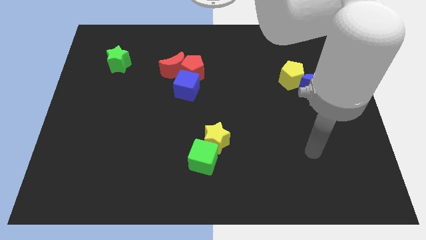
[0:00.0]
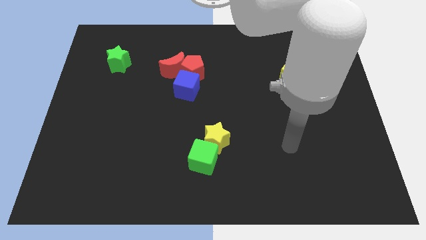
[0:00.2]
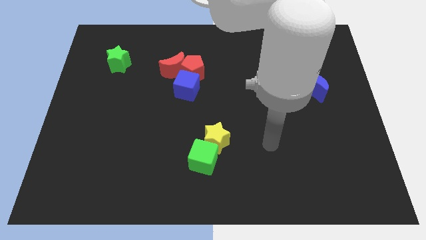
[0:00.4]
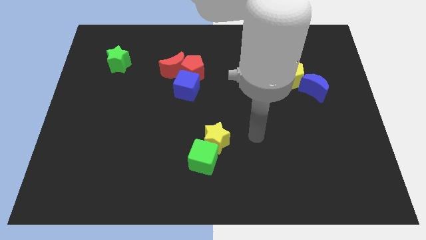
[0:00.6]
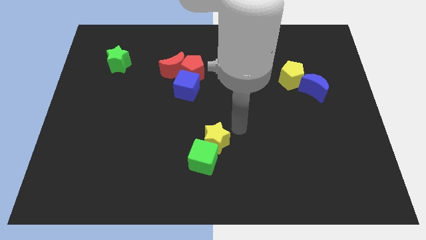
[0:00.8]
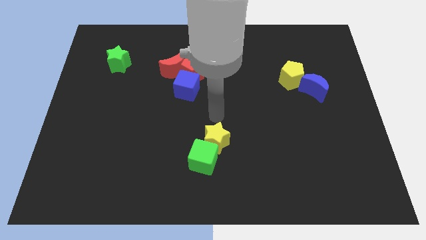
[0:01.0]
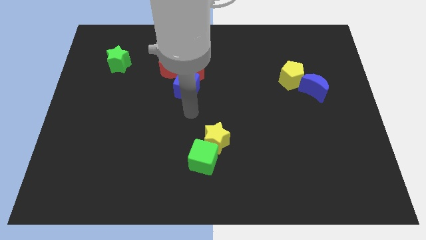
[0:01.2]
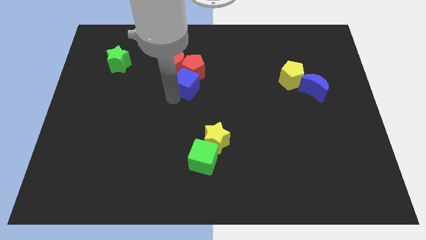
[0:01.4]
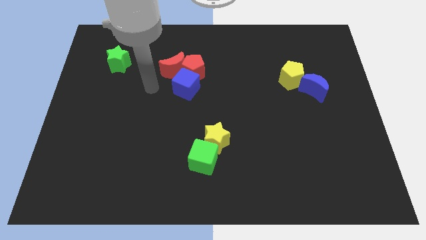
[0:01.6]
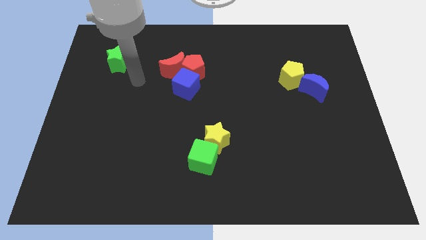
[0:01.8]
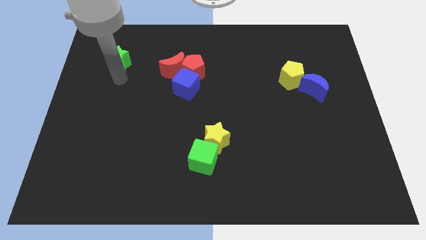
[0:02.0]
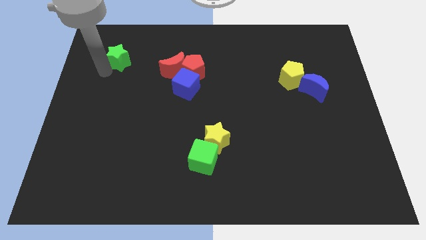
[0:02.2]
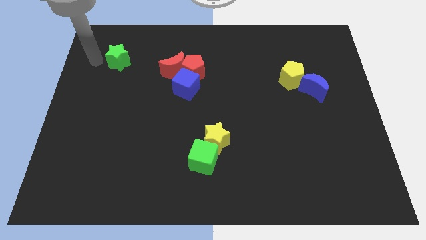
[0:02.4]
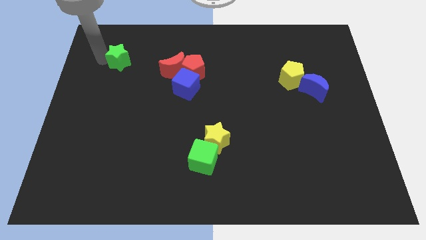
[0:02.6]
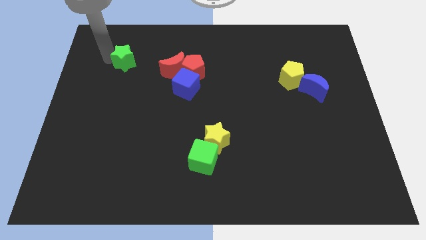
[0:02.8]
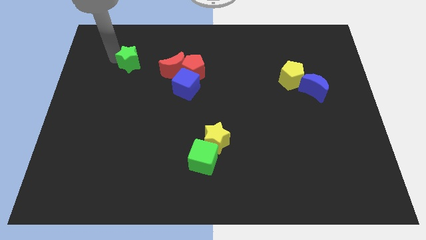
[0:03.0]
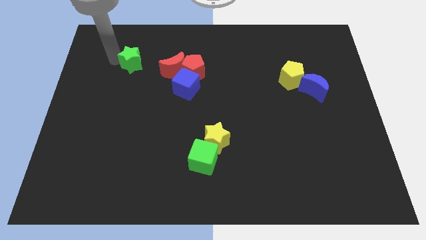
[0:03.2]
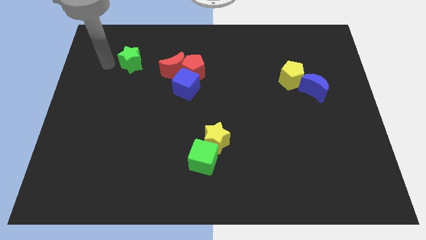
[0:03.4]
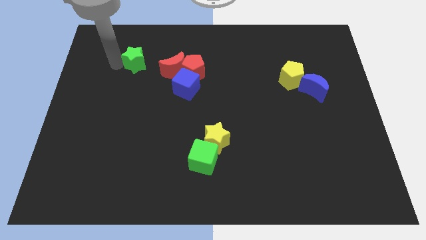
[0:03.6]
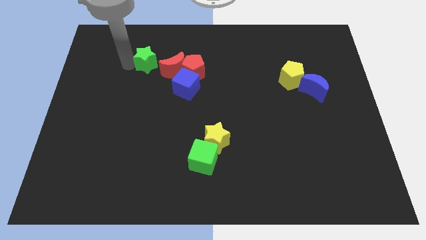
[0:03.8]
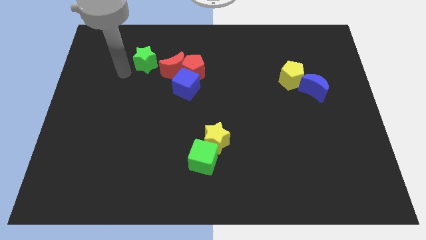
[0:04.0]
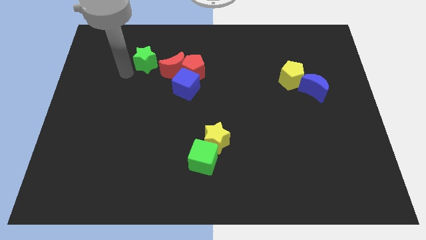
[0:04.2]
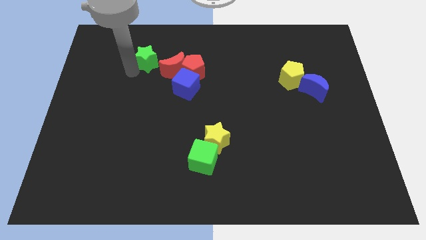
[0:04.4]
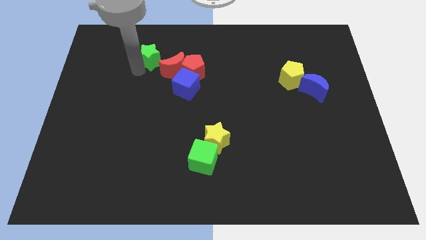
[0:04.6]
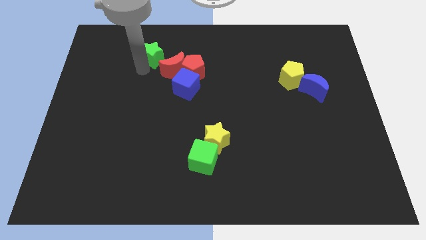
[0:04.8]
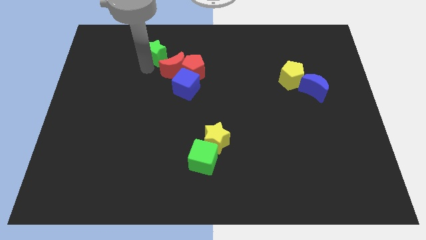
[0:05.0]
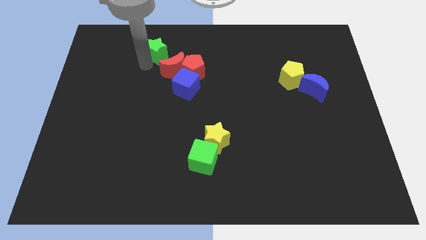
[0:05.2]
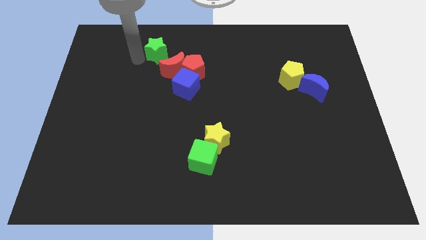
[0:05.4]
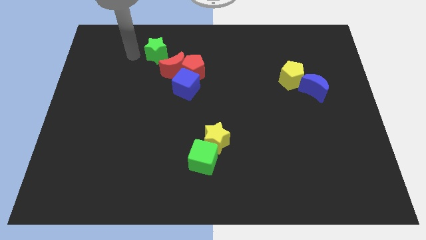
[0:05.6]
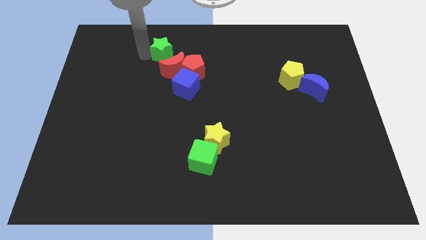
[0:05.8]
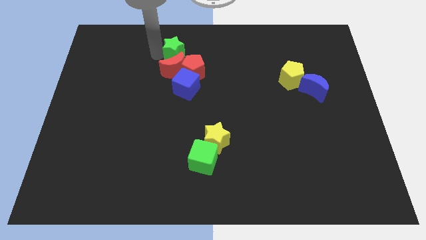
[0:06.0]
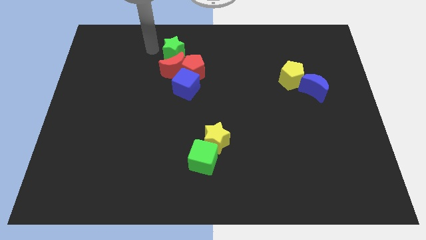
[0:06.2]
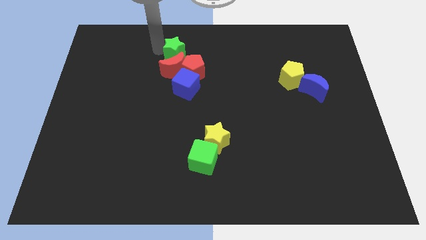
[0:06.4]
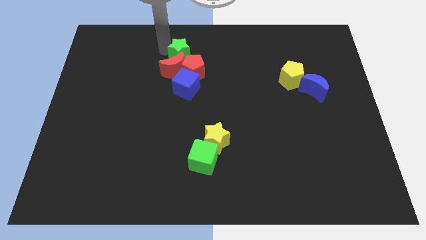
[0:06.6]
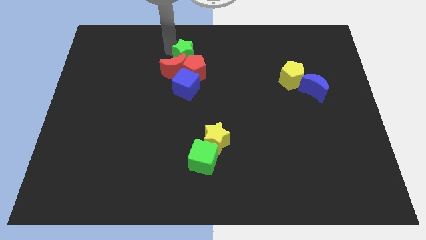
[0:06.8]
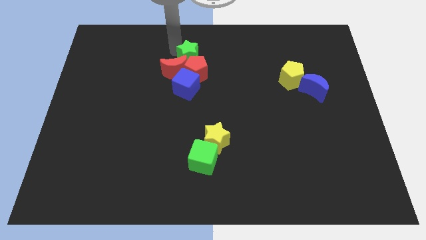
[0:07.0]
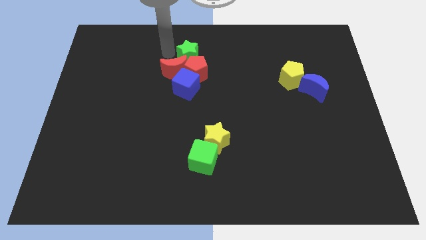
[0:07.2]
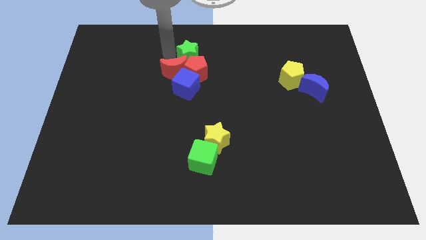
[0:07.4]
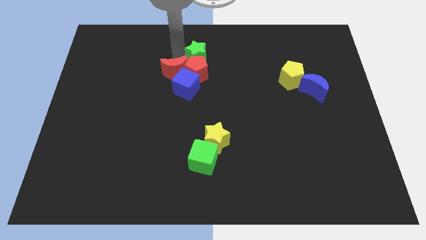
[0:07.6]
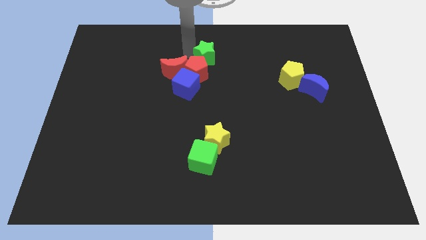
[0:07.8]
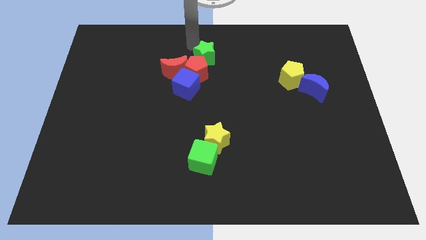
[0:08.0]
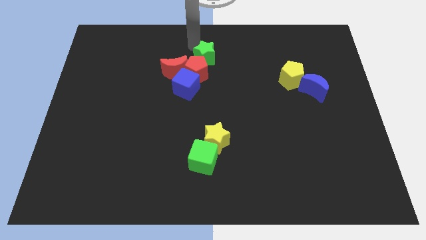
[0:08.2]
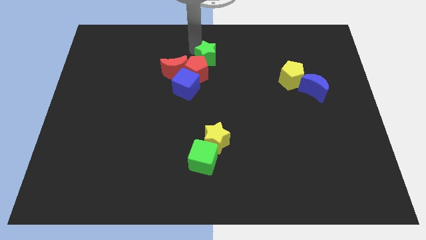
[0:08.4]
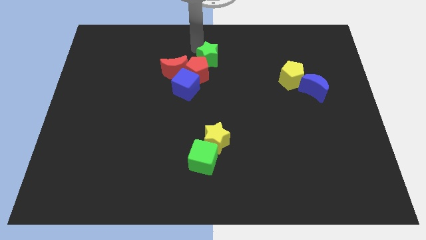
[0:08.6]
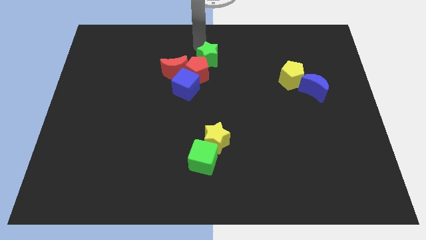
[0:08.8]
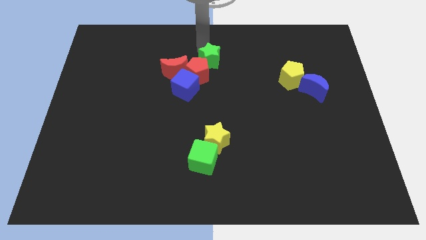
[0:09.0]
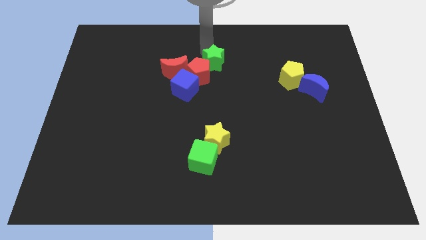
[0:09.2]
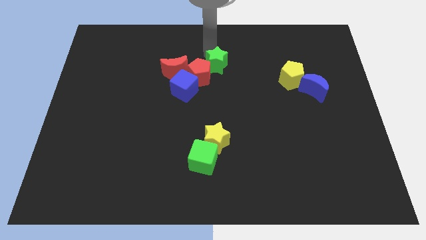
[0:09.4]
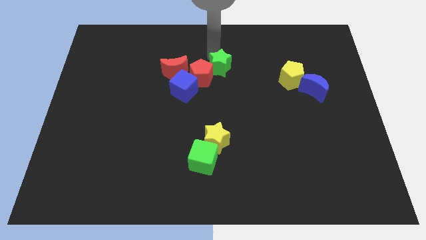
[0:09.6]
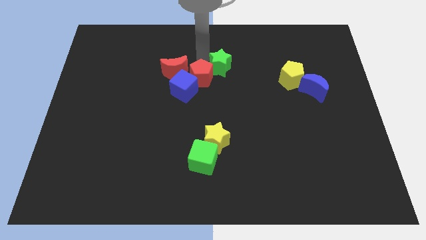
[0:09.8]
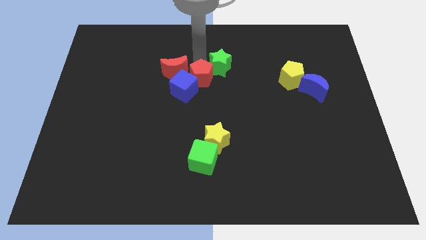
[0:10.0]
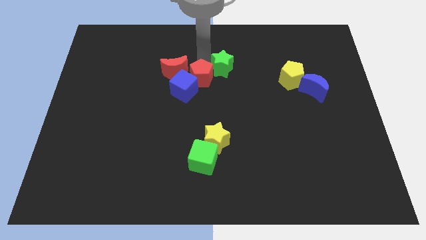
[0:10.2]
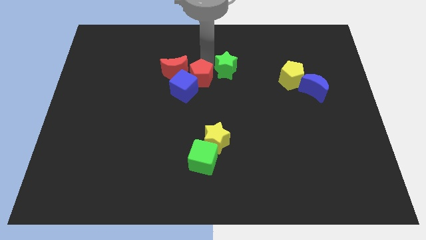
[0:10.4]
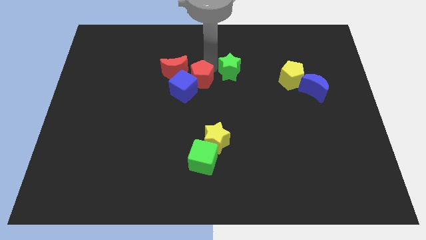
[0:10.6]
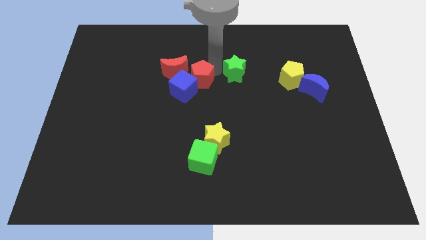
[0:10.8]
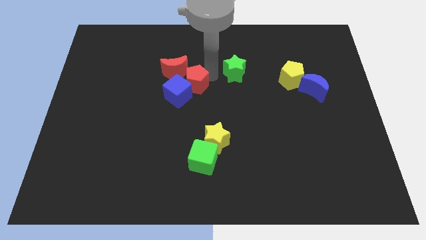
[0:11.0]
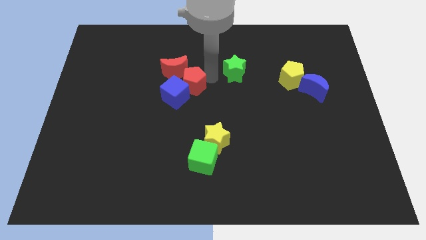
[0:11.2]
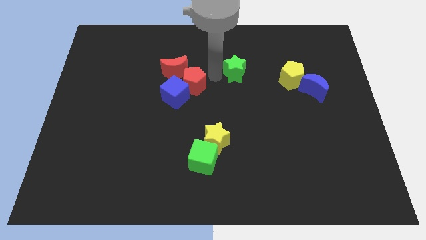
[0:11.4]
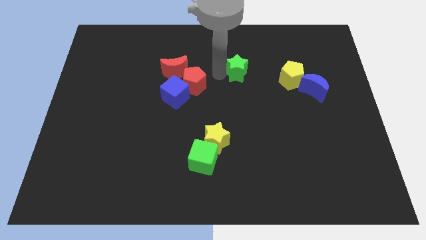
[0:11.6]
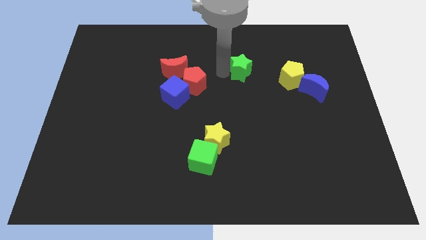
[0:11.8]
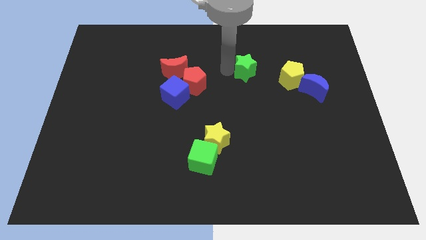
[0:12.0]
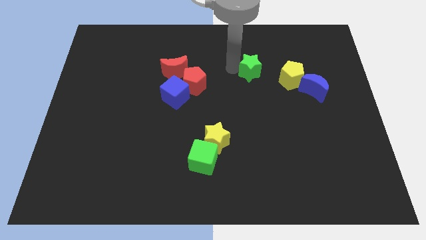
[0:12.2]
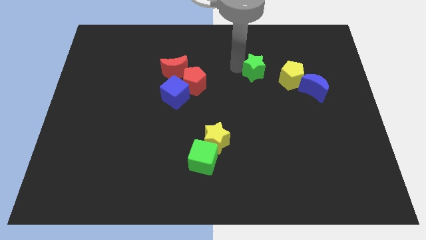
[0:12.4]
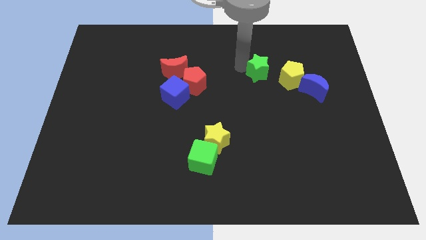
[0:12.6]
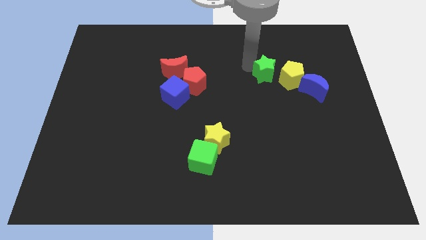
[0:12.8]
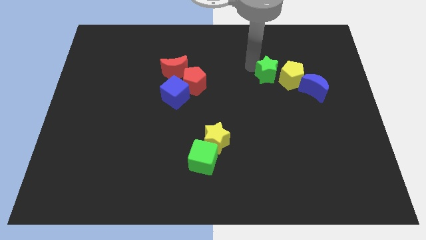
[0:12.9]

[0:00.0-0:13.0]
push the green star close to the yellow pentagon
